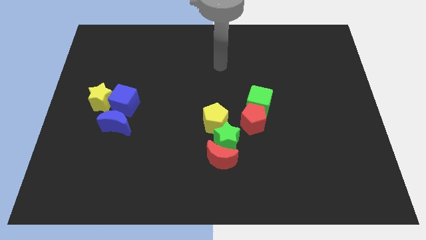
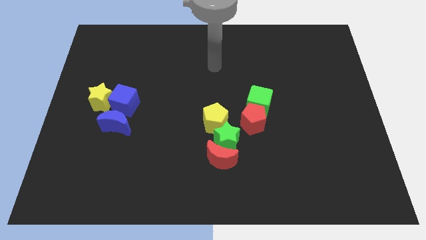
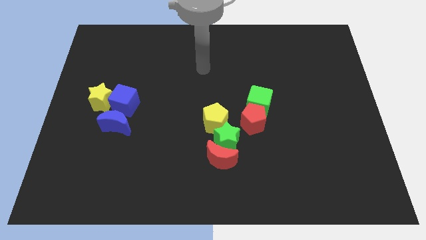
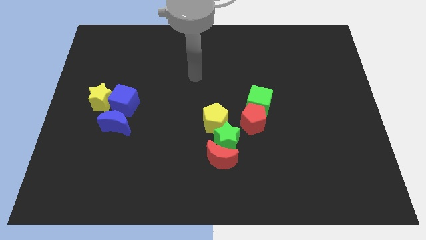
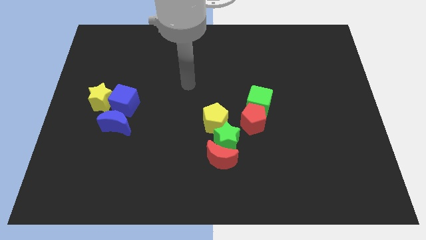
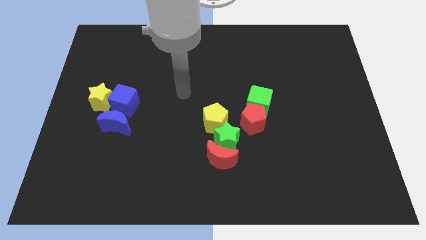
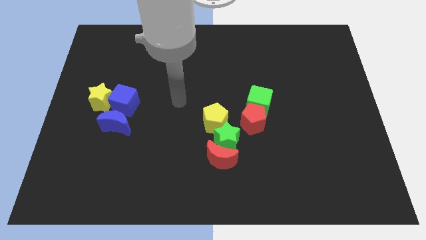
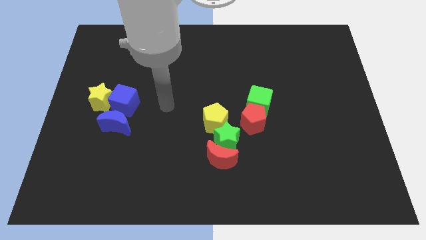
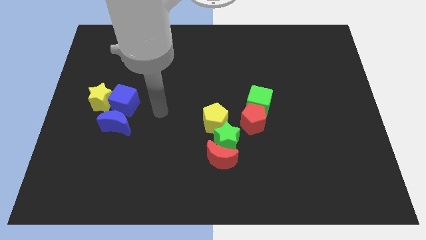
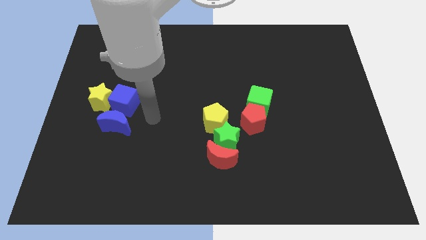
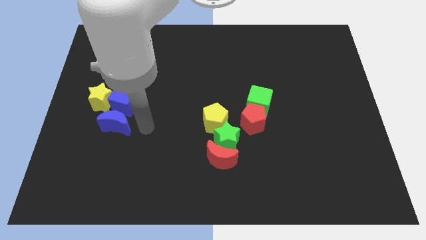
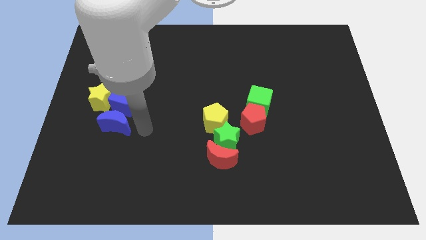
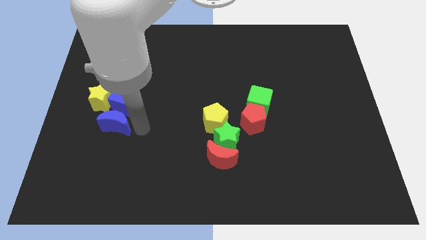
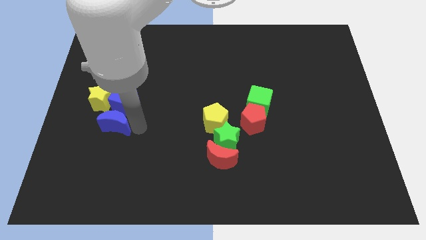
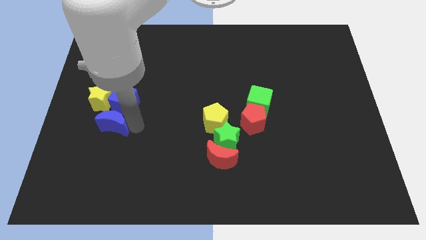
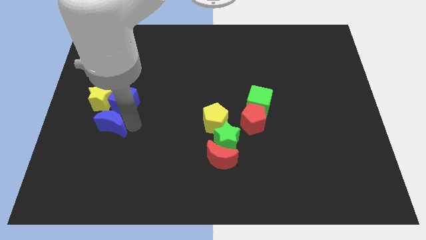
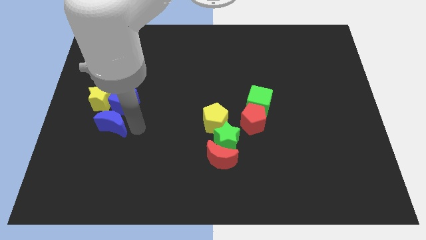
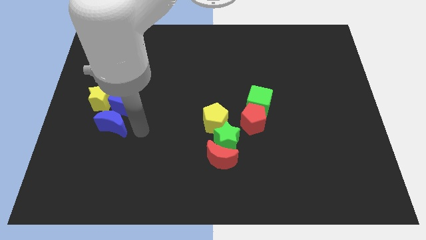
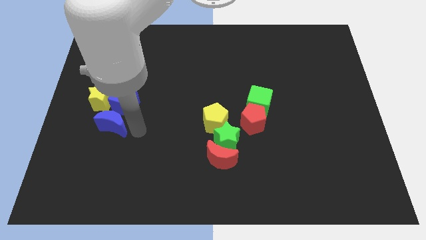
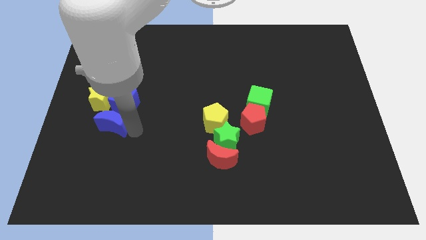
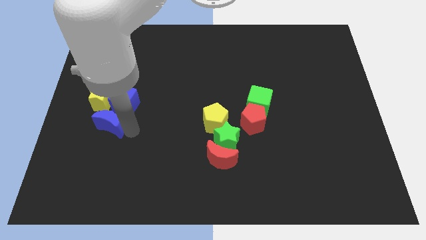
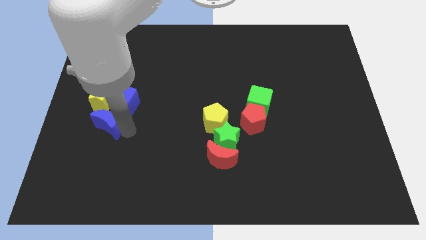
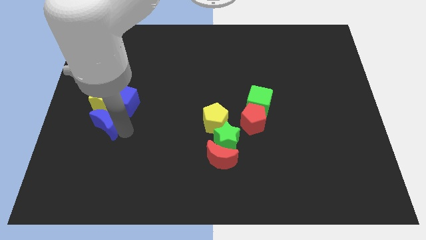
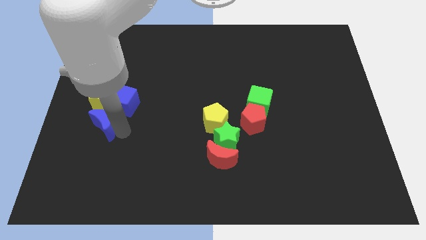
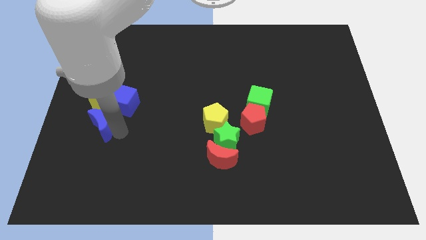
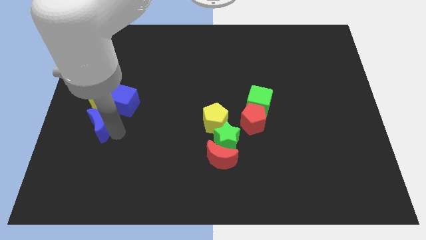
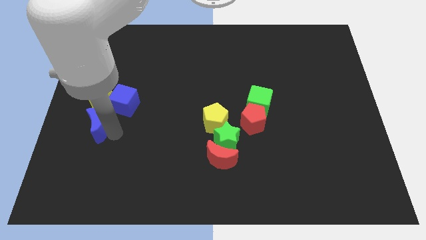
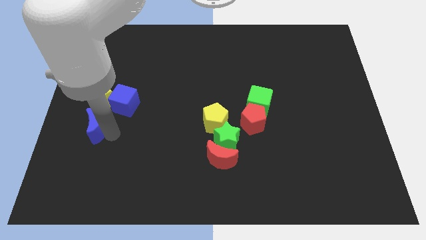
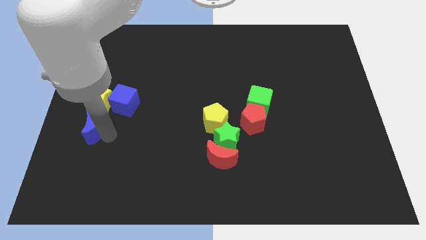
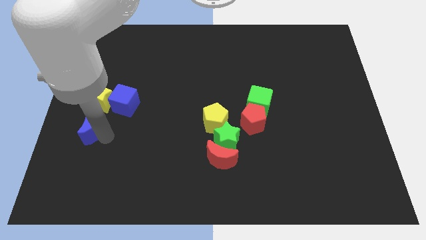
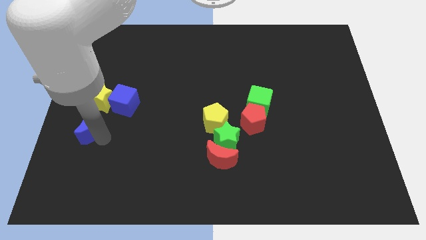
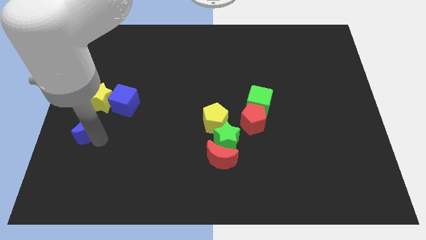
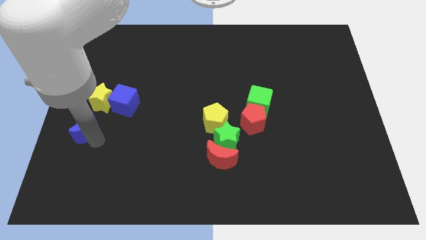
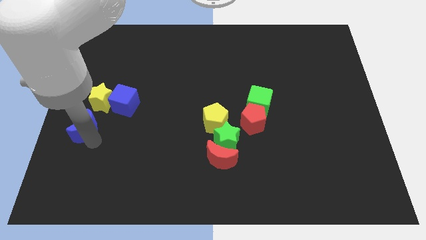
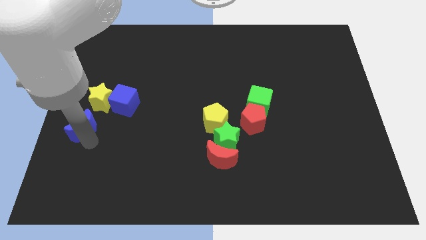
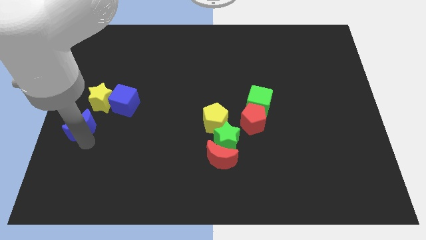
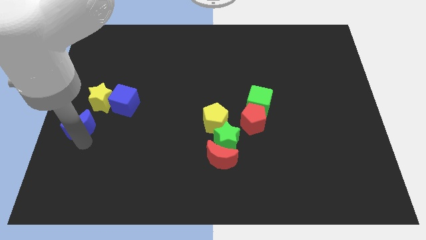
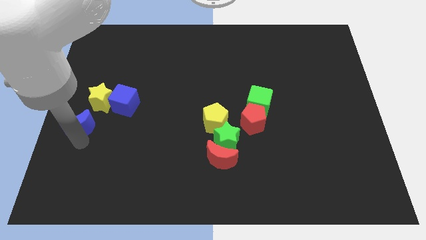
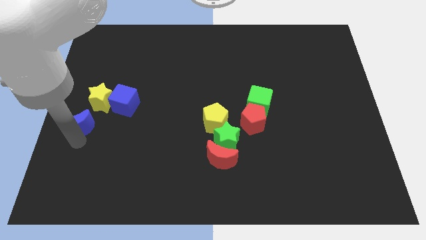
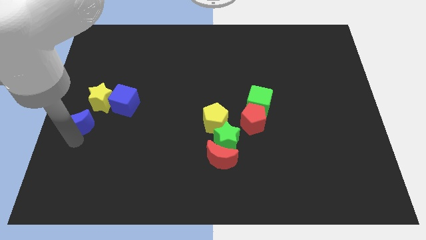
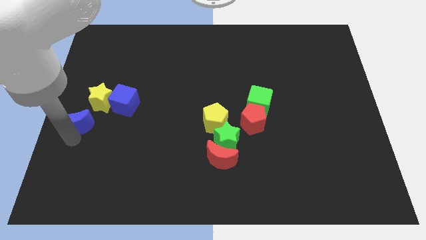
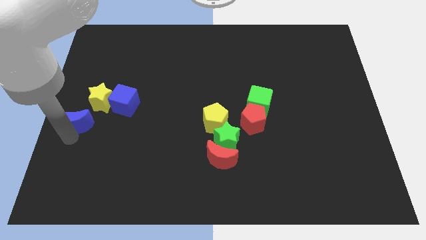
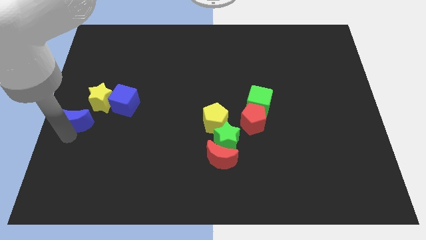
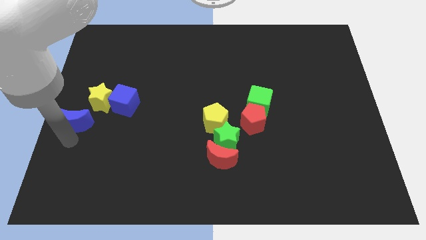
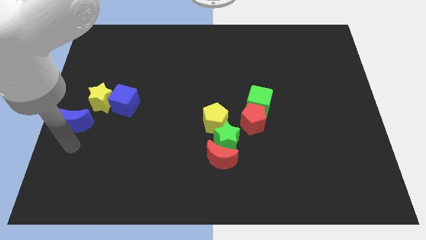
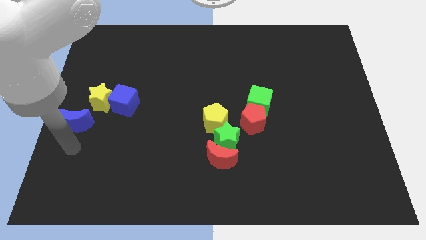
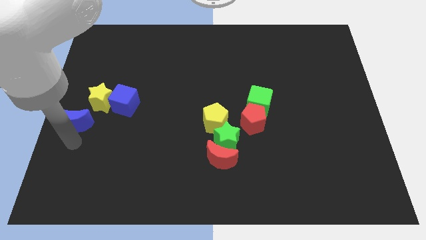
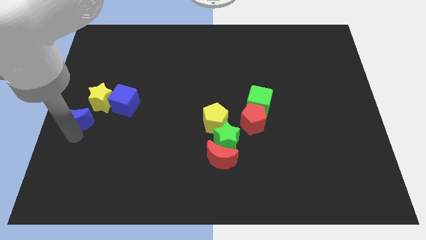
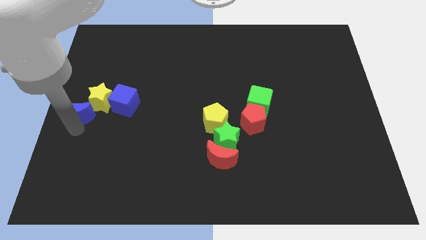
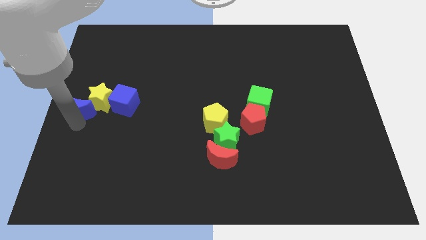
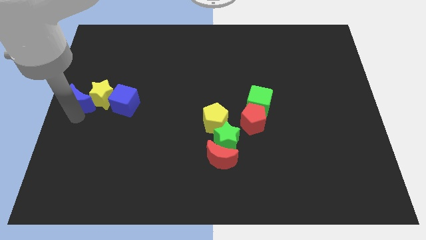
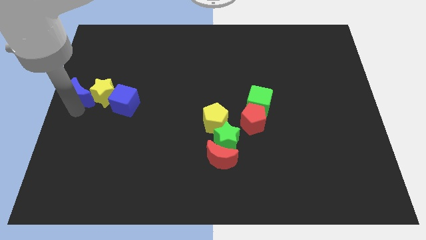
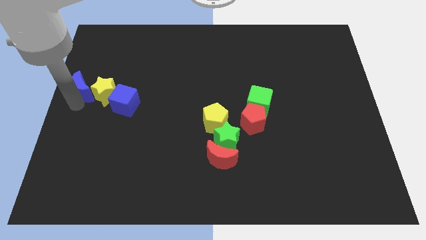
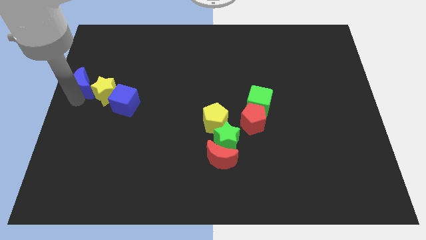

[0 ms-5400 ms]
slightly slide the blue moon upwards

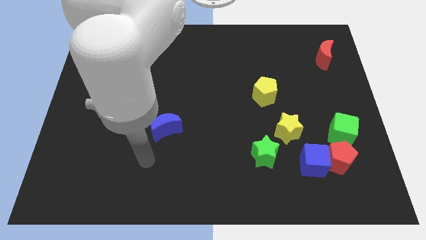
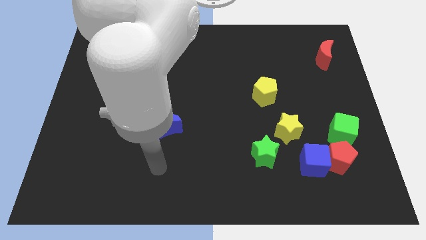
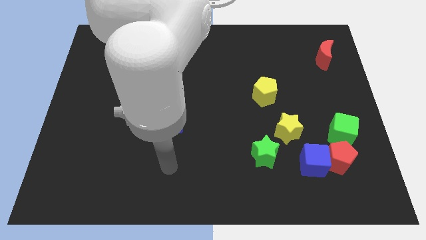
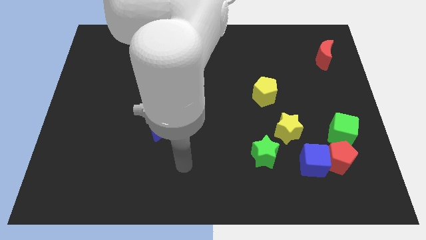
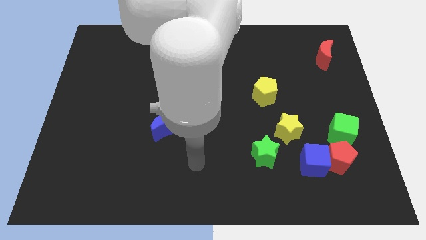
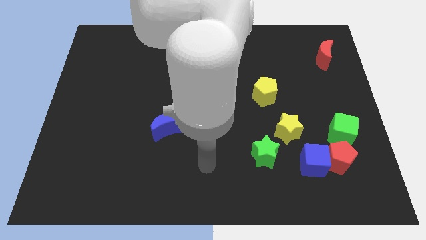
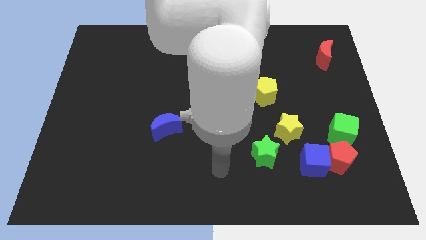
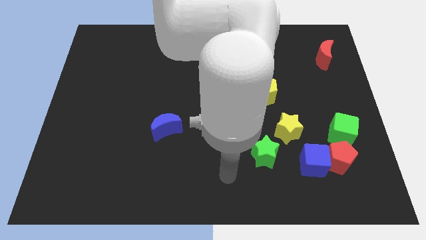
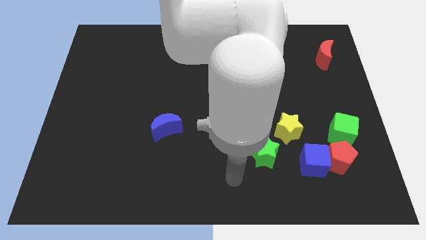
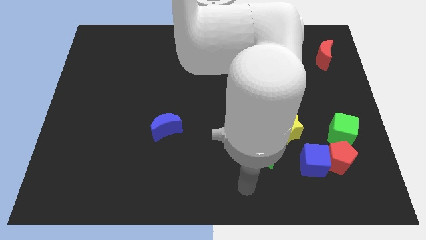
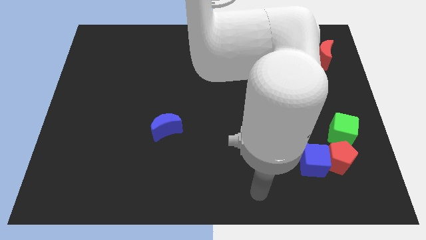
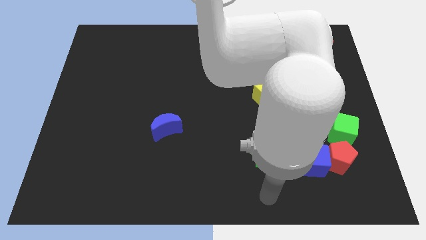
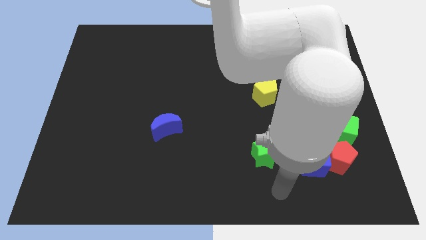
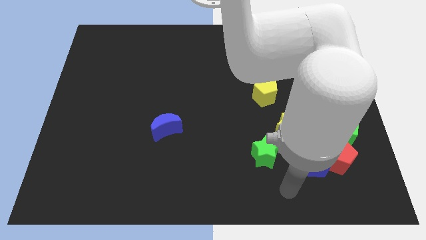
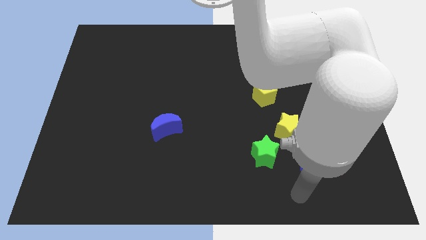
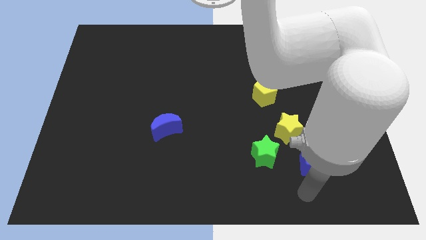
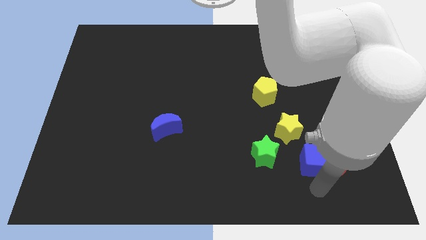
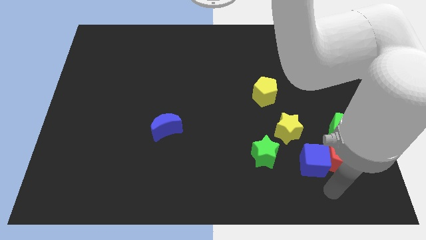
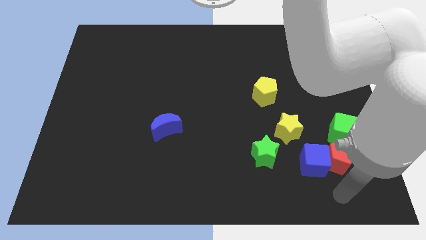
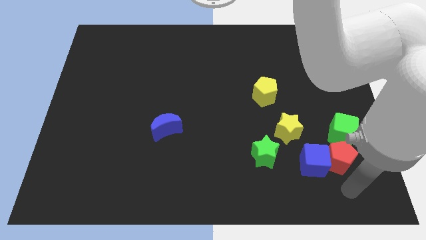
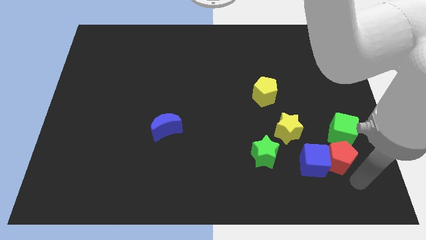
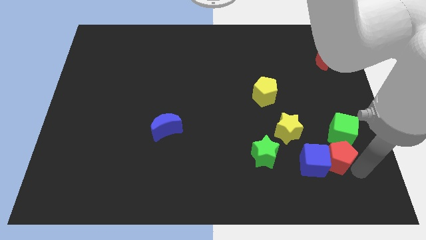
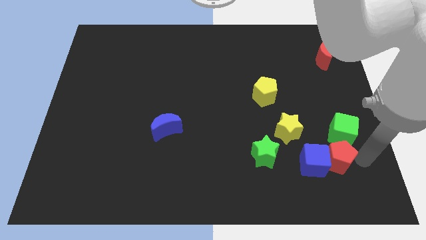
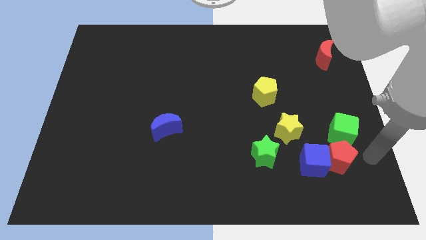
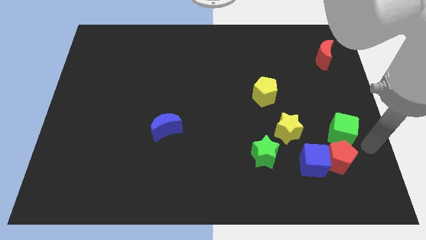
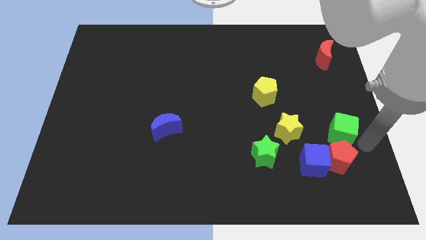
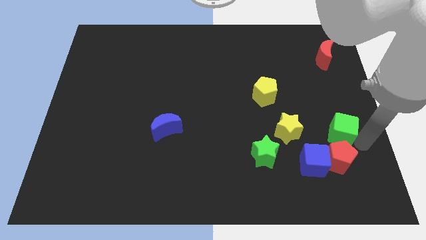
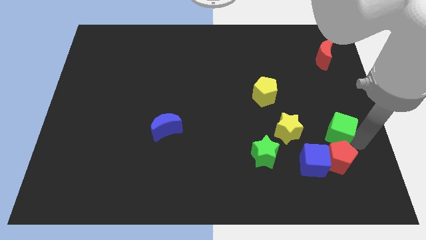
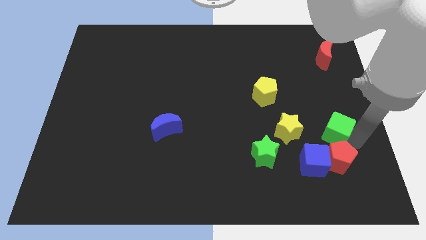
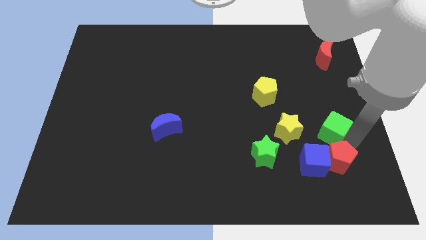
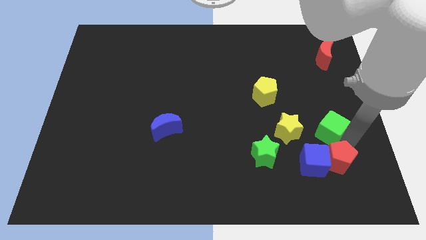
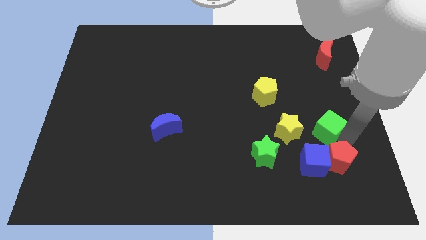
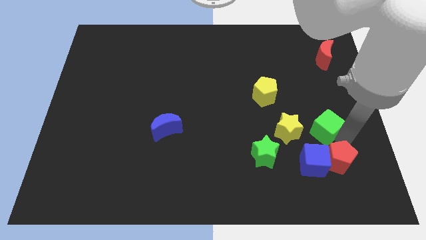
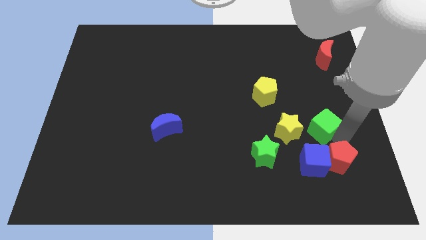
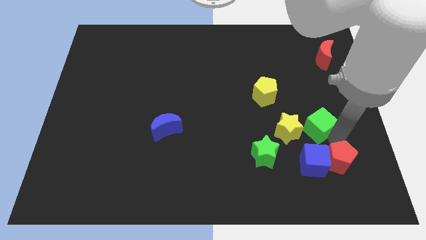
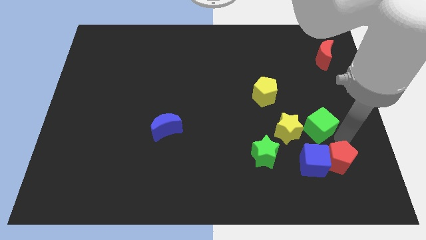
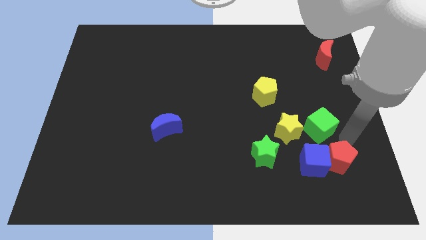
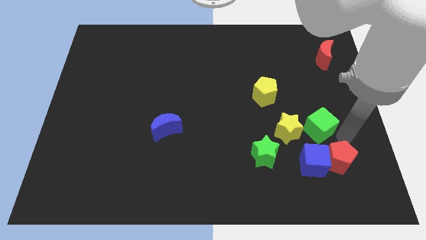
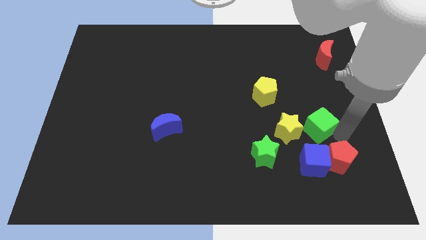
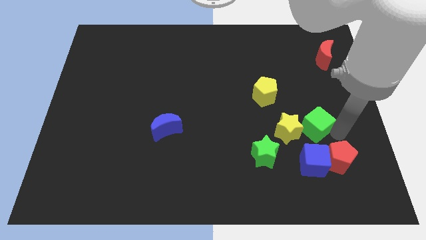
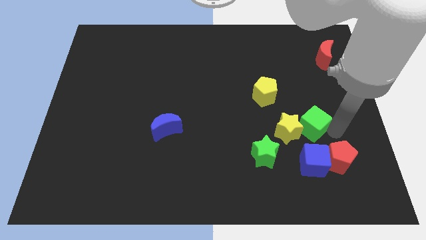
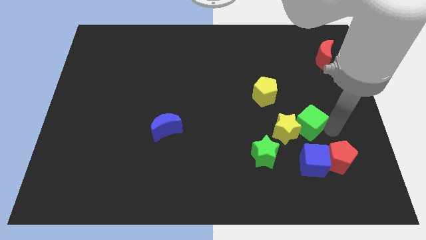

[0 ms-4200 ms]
move the green cube left a little
